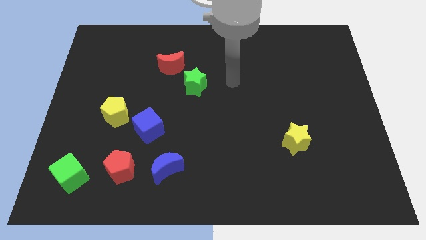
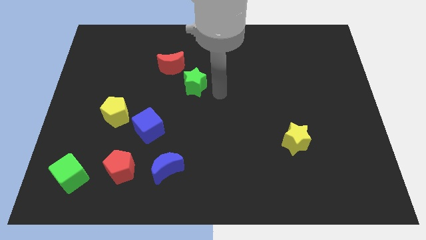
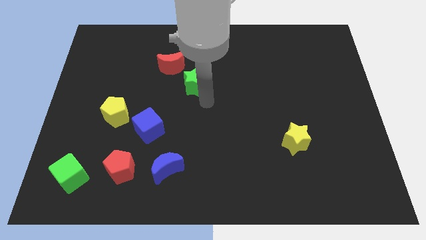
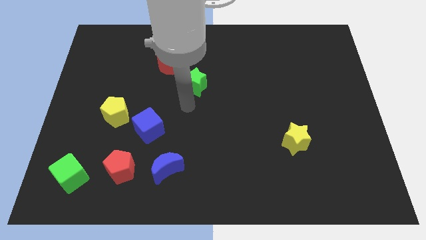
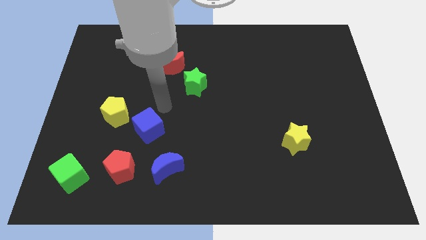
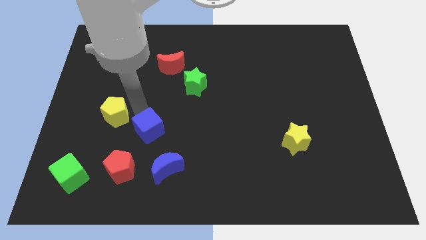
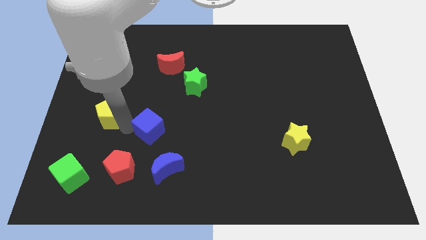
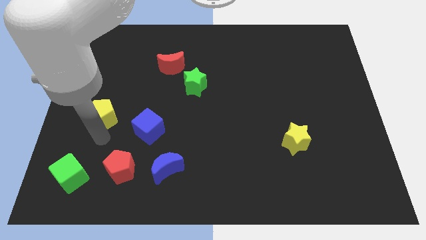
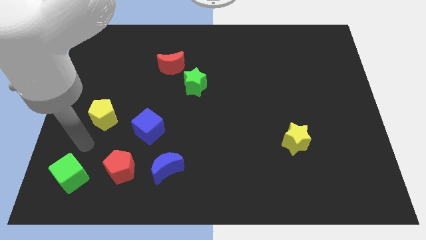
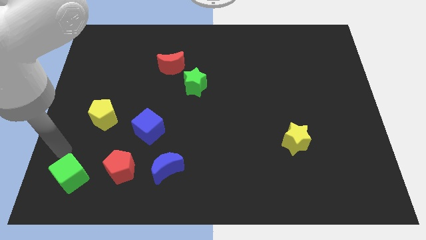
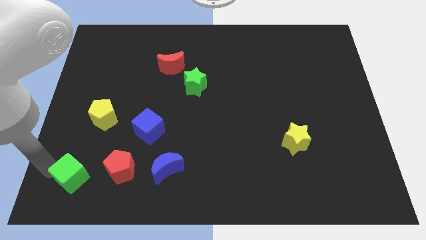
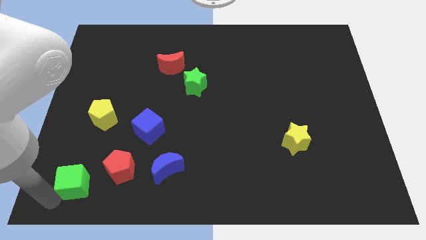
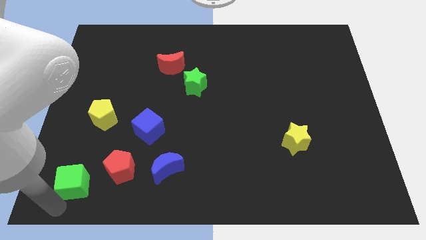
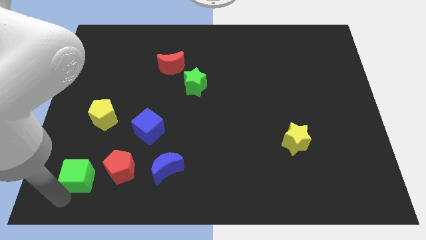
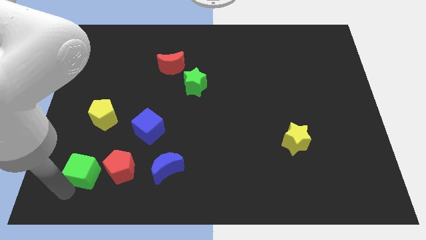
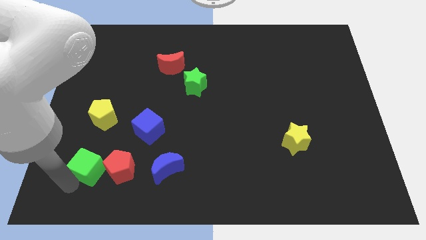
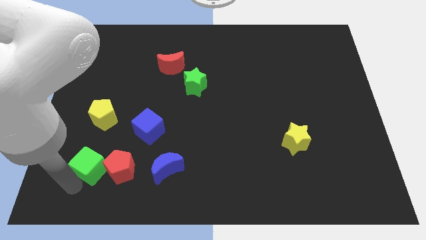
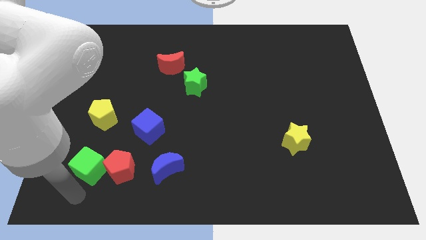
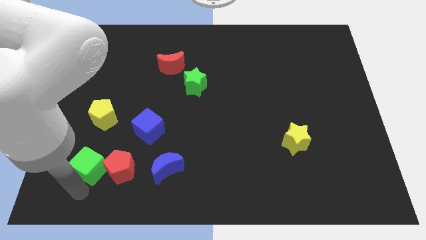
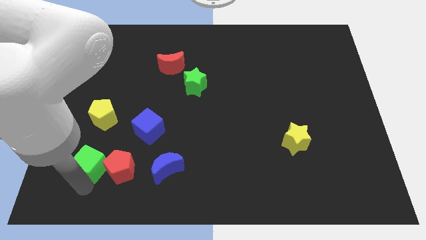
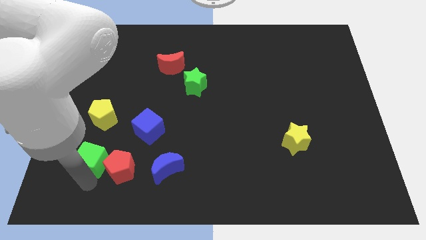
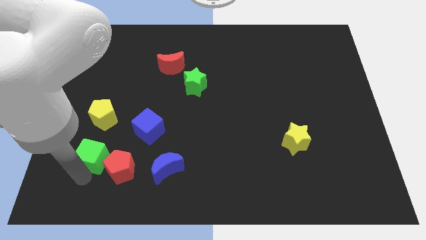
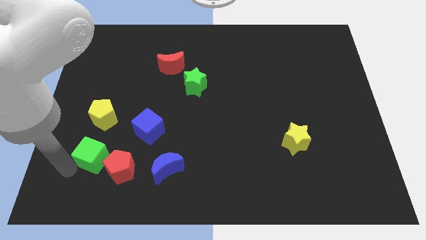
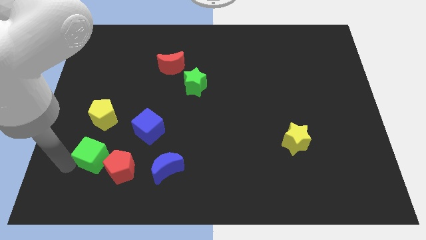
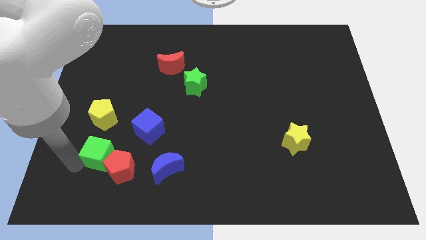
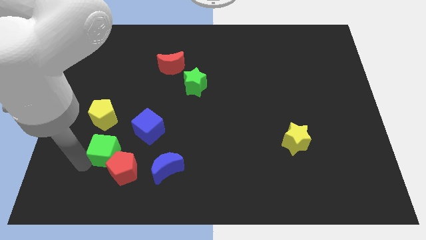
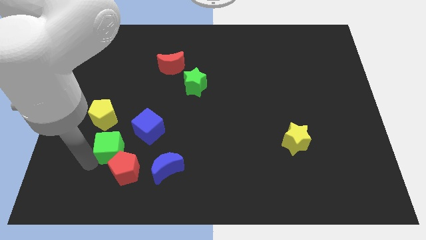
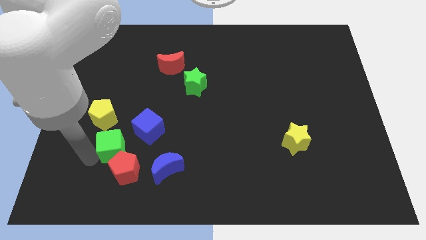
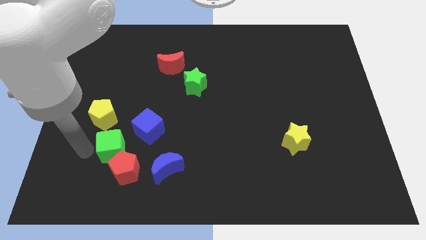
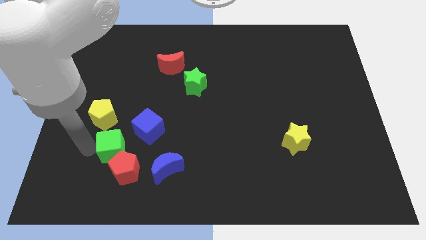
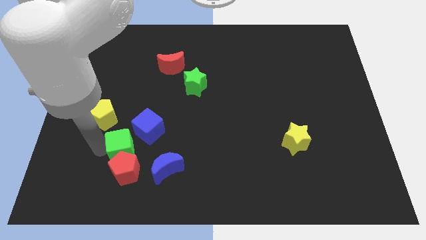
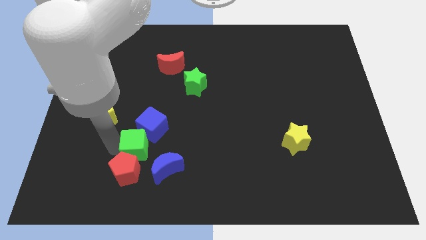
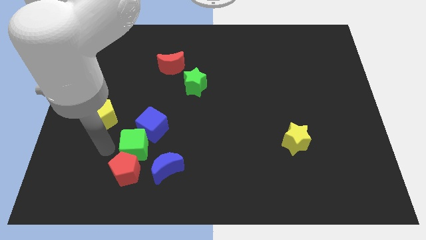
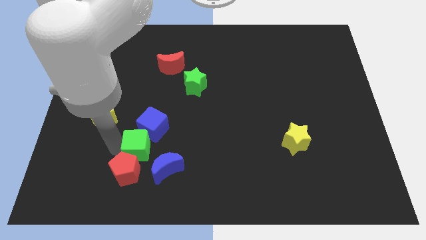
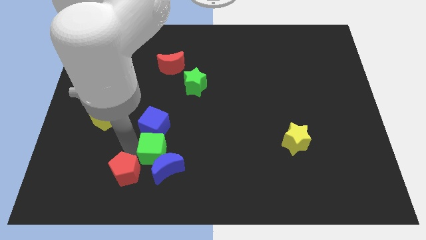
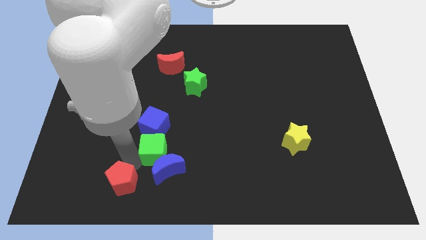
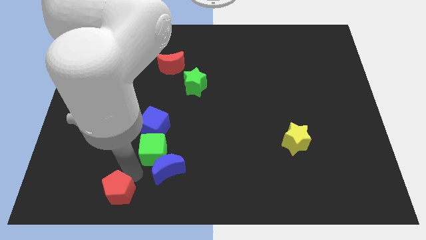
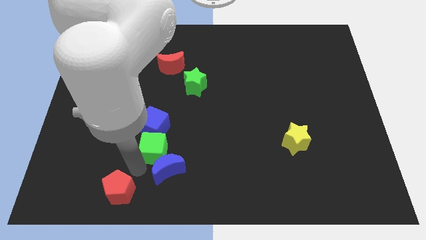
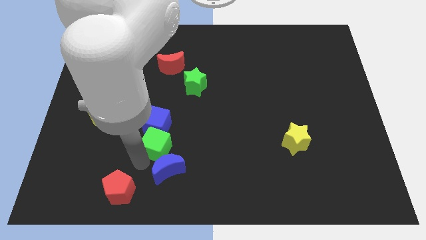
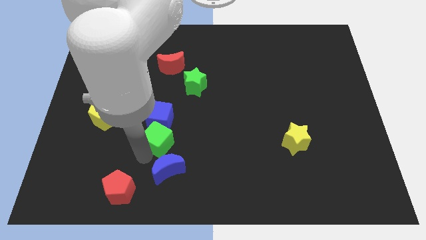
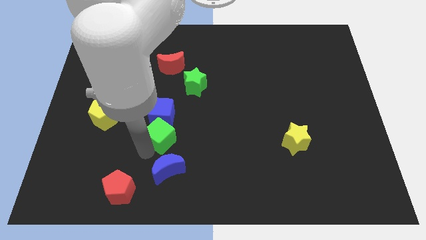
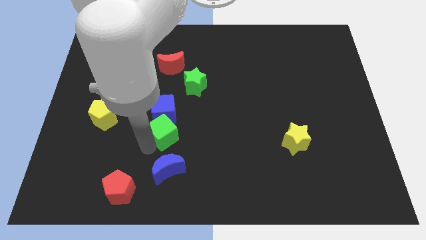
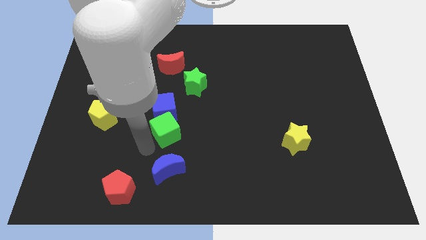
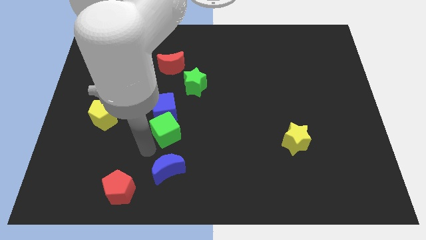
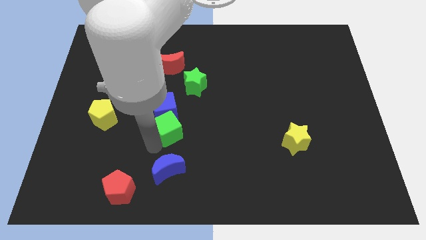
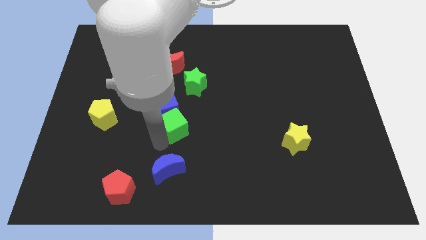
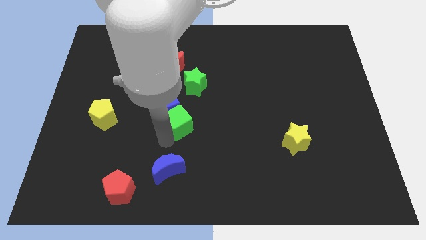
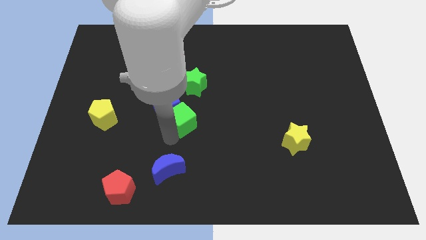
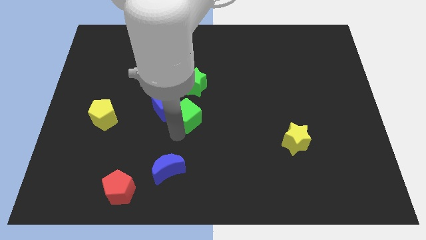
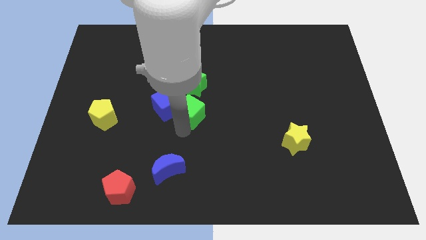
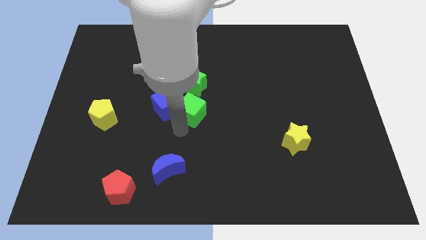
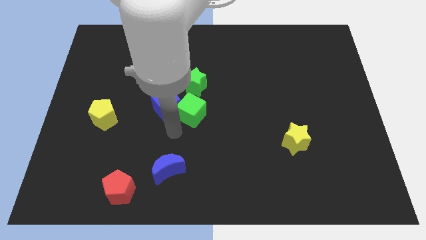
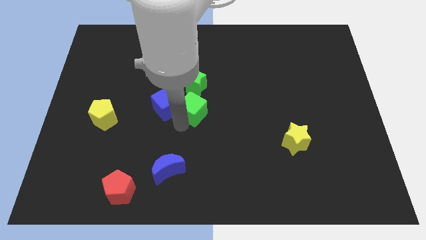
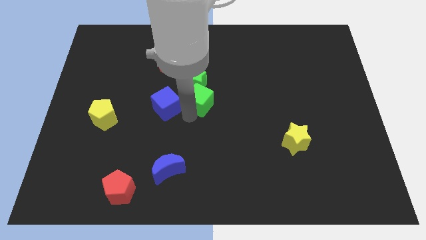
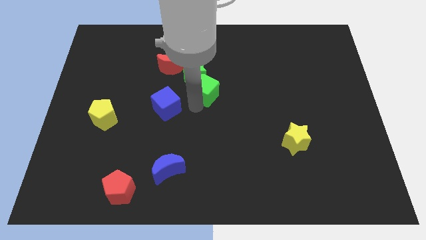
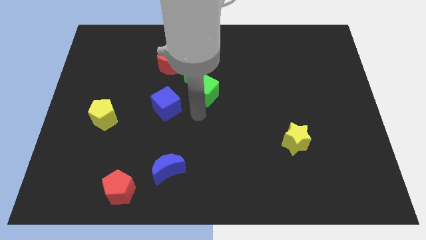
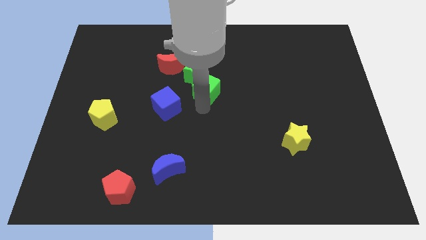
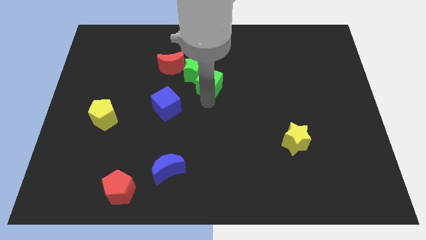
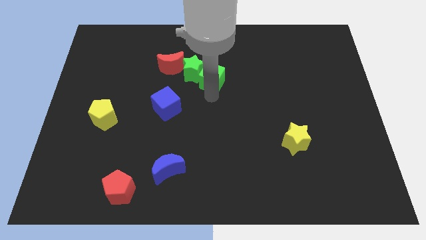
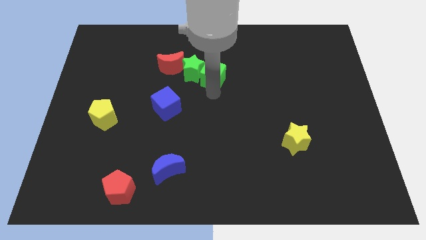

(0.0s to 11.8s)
put the green cube to the top right side of the green star

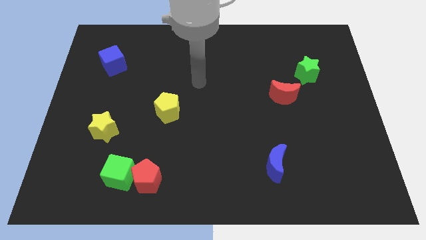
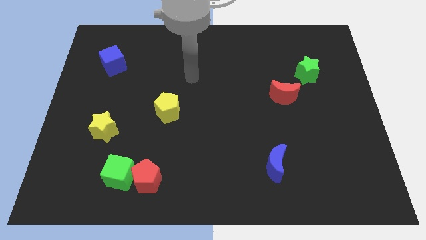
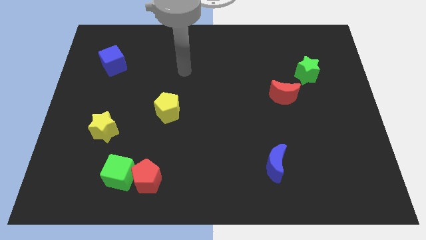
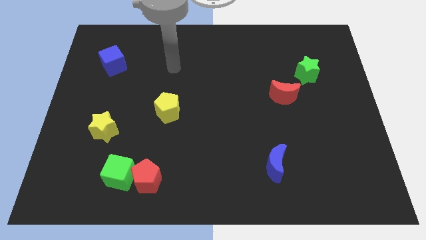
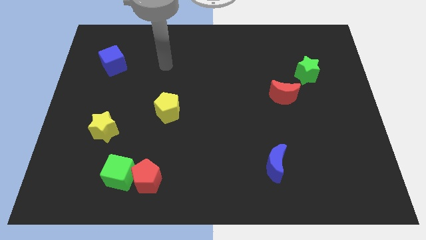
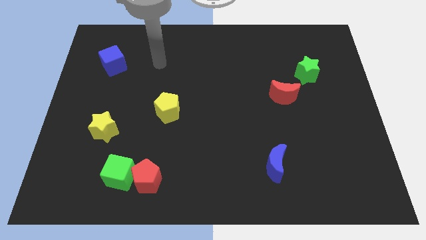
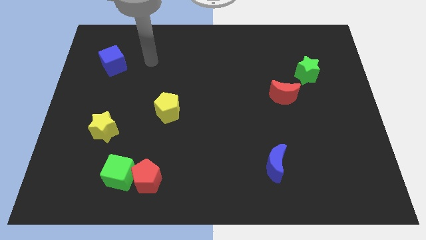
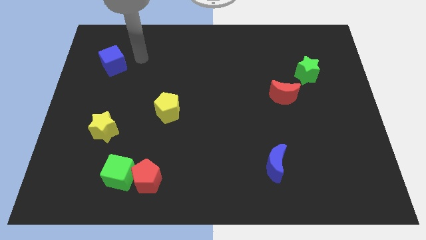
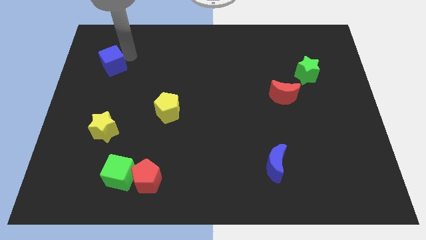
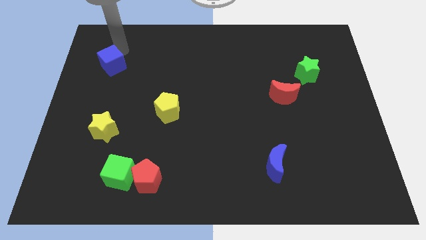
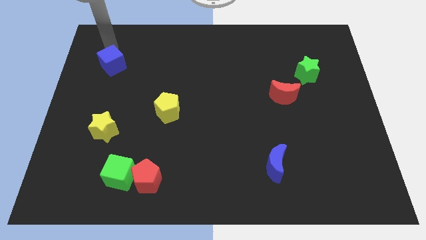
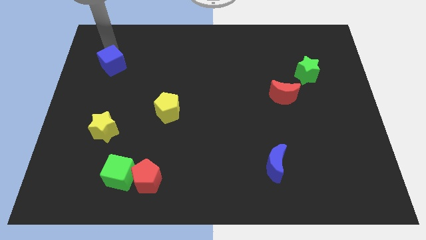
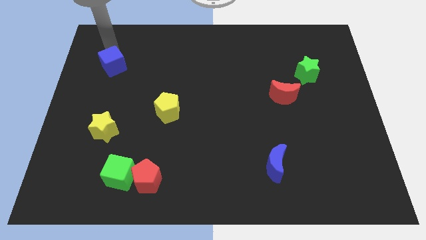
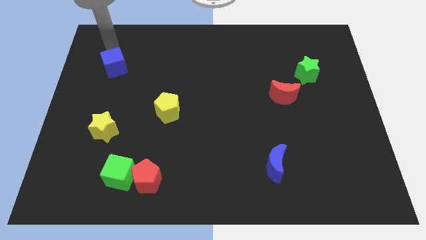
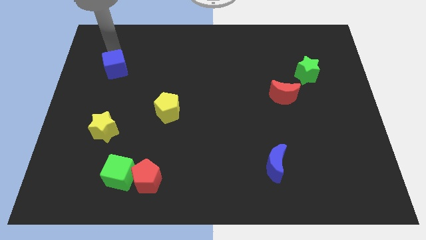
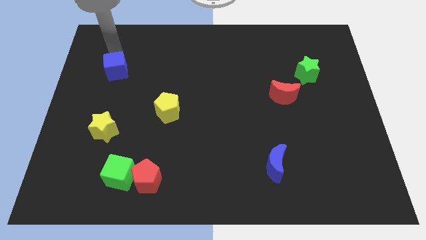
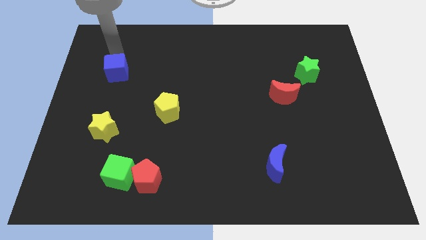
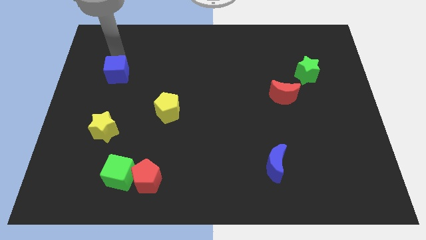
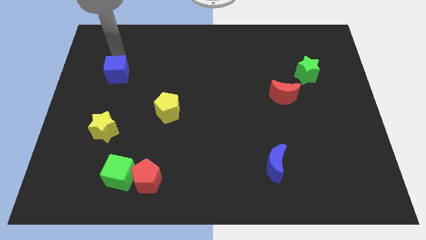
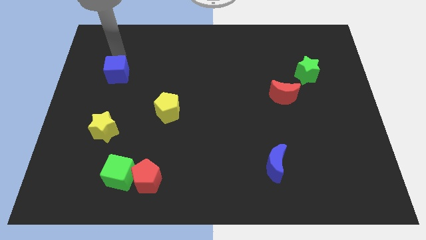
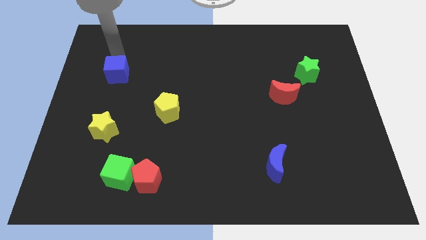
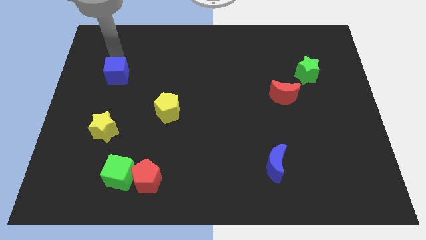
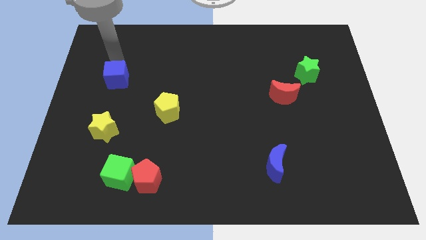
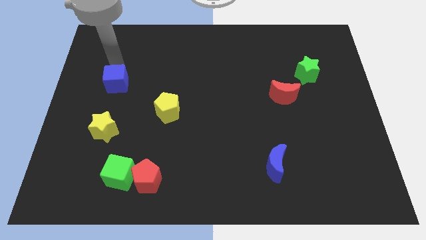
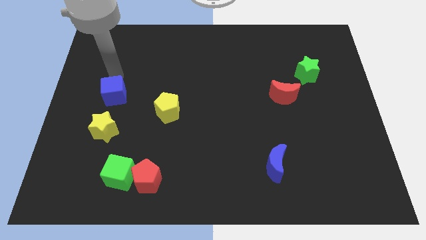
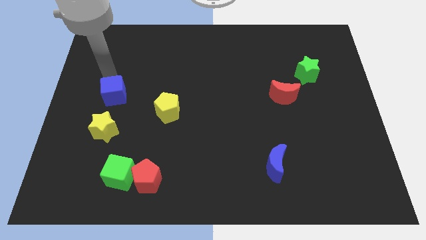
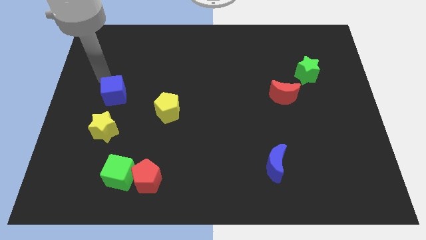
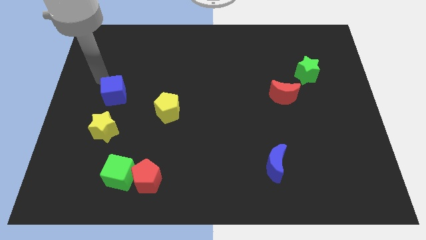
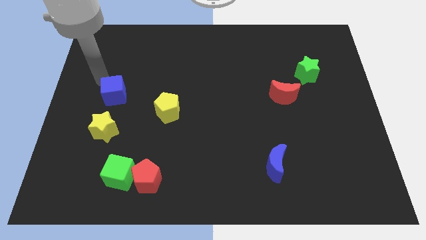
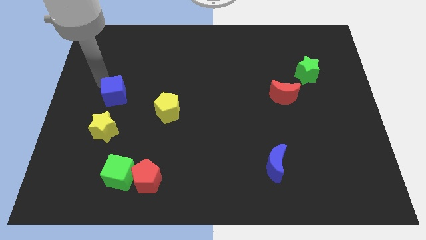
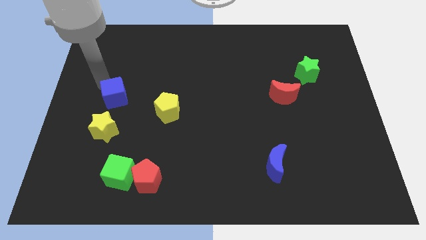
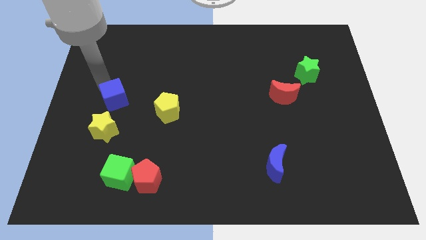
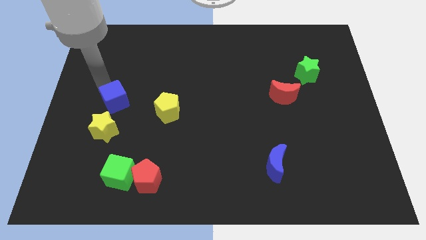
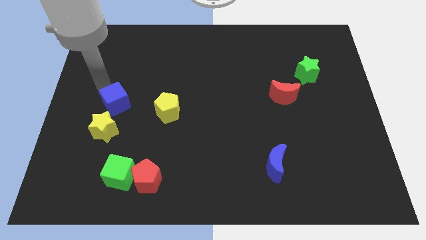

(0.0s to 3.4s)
slide the blue cube to the top right of the yellow star
